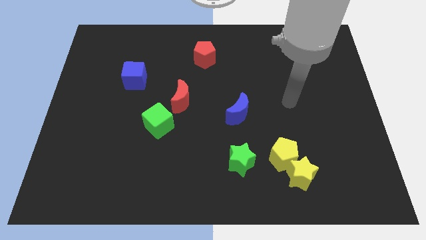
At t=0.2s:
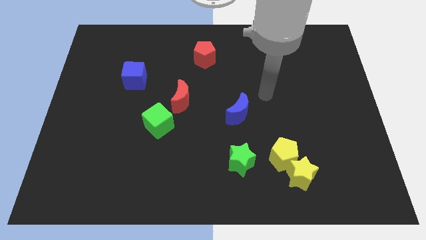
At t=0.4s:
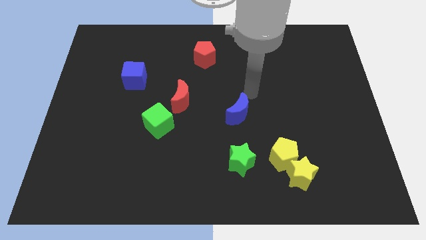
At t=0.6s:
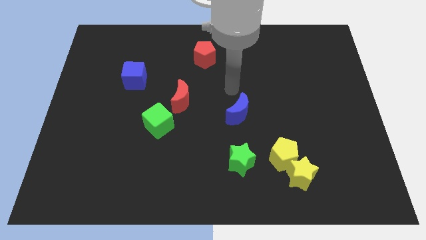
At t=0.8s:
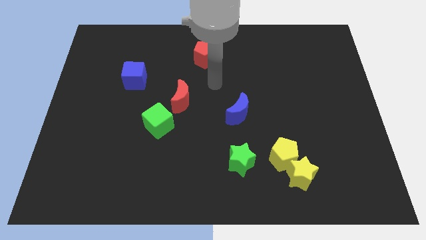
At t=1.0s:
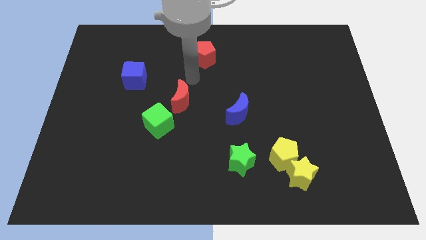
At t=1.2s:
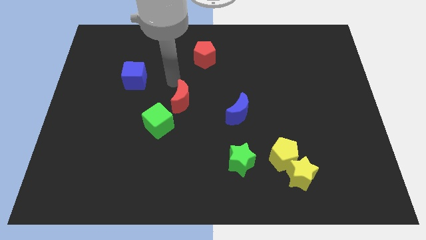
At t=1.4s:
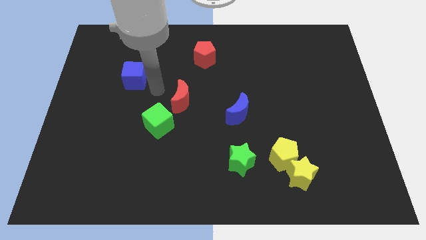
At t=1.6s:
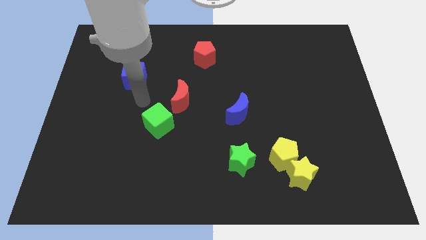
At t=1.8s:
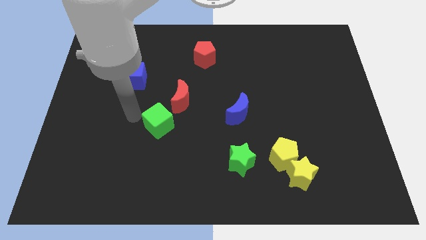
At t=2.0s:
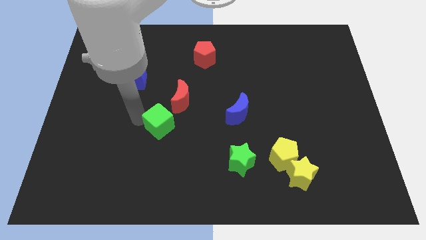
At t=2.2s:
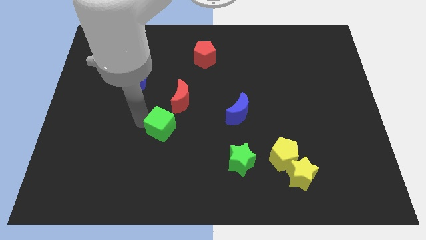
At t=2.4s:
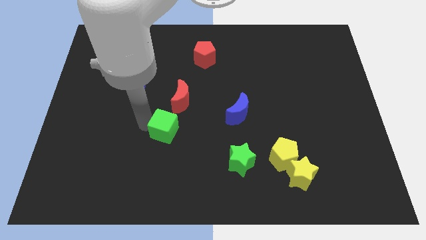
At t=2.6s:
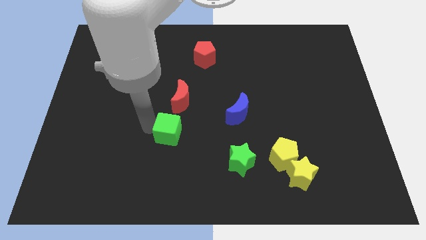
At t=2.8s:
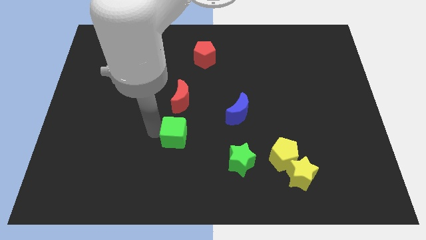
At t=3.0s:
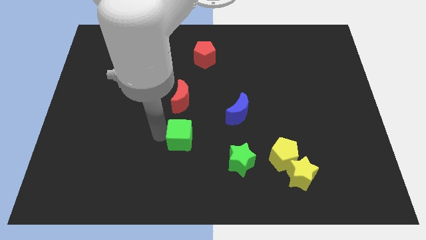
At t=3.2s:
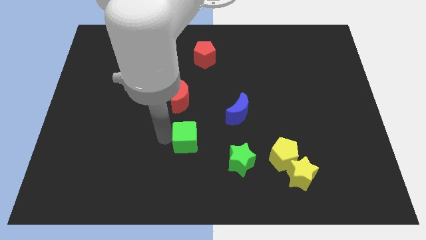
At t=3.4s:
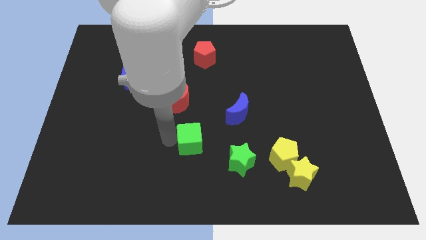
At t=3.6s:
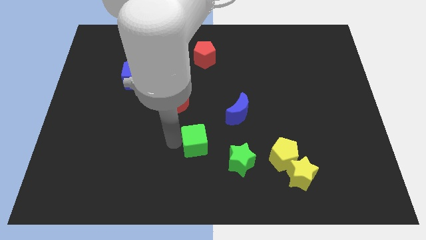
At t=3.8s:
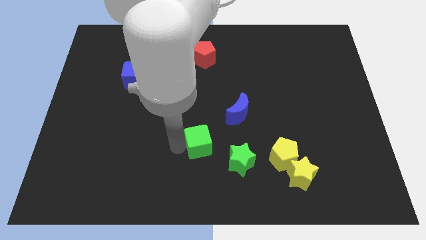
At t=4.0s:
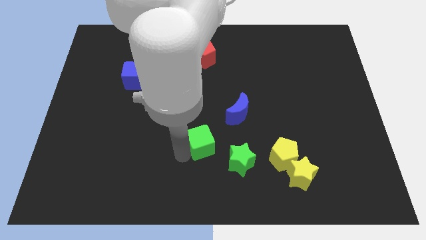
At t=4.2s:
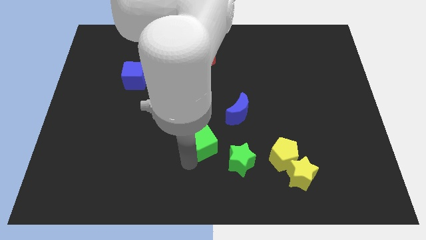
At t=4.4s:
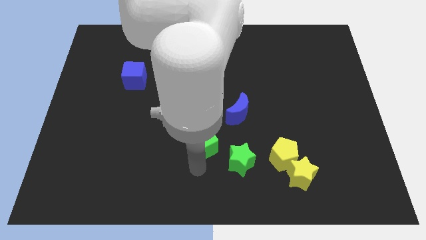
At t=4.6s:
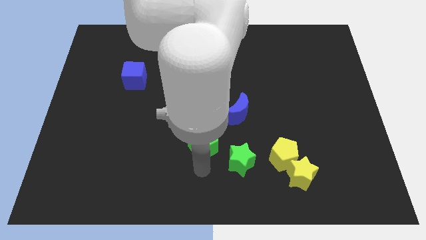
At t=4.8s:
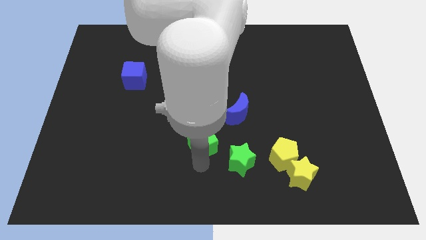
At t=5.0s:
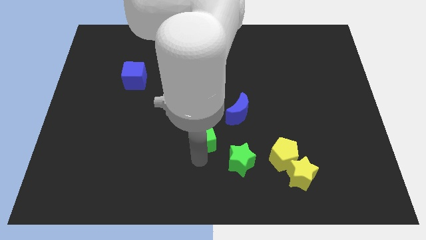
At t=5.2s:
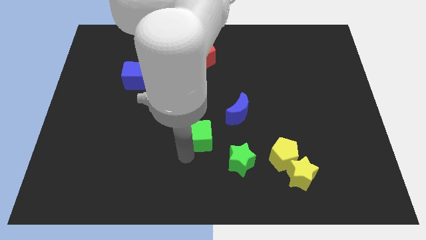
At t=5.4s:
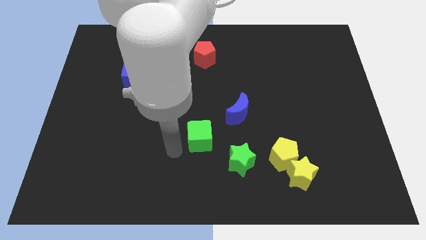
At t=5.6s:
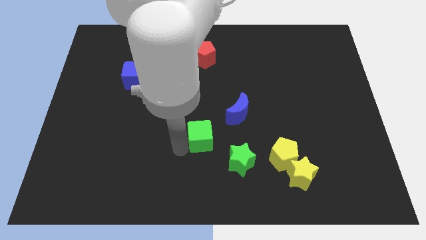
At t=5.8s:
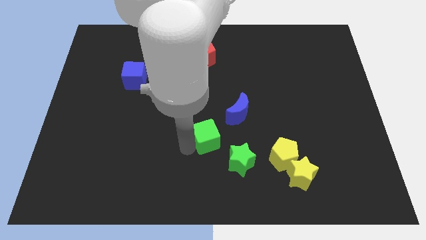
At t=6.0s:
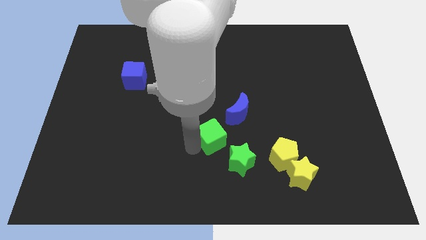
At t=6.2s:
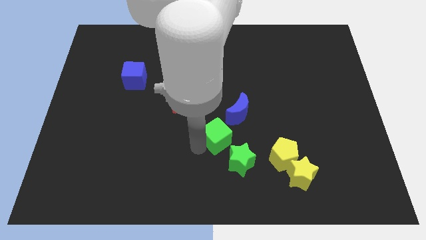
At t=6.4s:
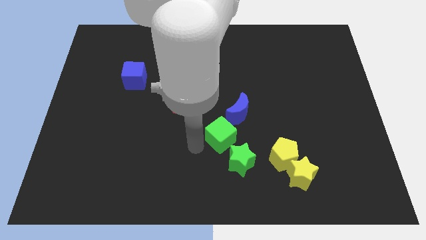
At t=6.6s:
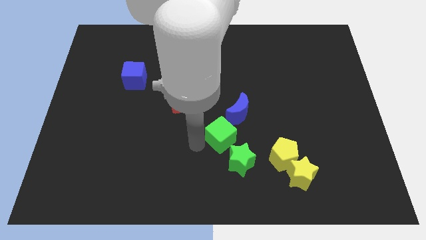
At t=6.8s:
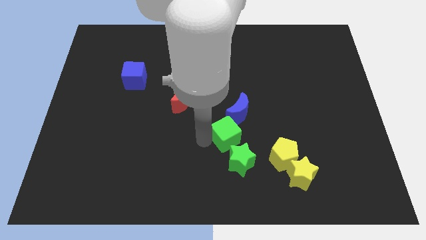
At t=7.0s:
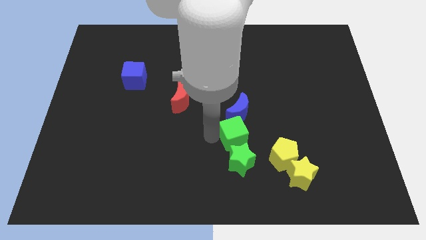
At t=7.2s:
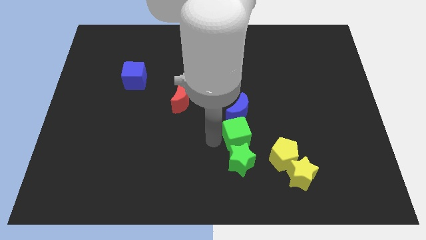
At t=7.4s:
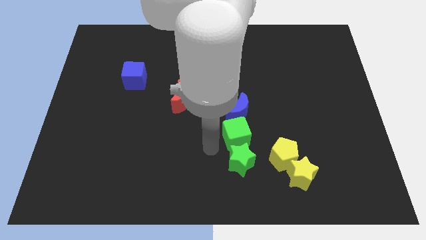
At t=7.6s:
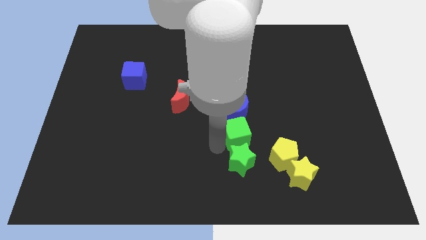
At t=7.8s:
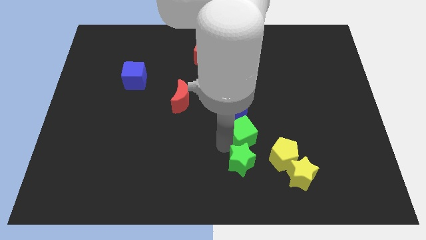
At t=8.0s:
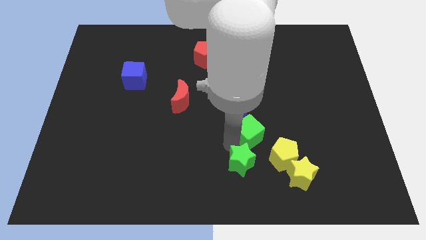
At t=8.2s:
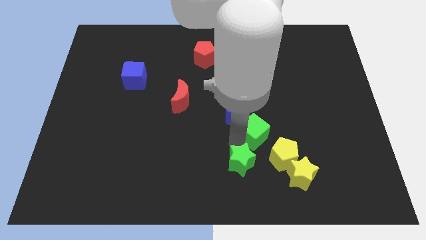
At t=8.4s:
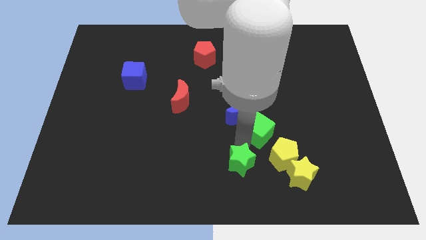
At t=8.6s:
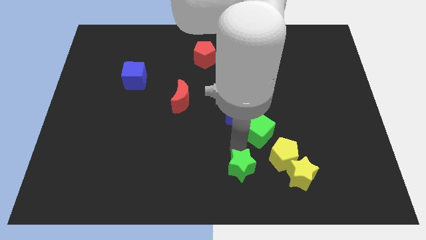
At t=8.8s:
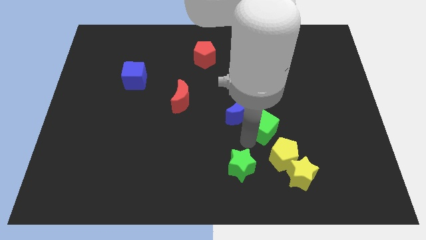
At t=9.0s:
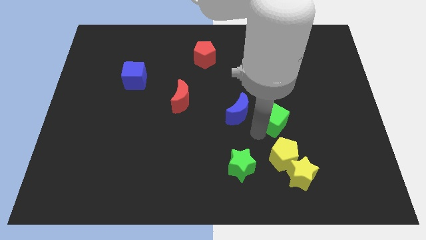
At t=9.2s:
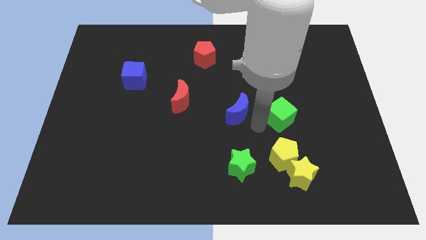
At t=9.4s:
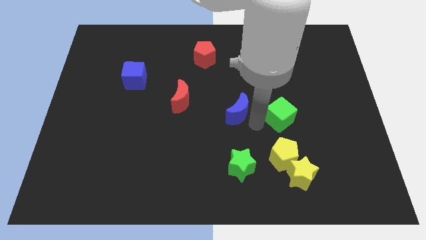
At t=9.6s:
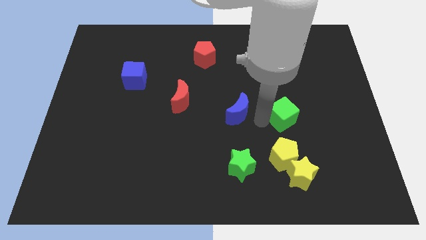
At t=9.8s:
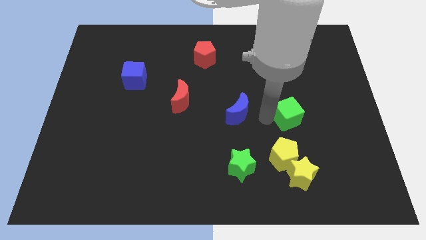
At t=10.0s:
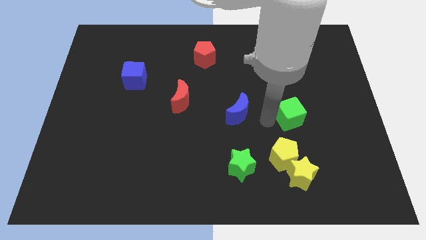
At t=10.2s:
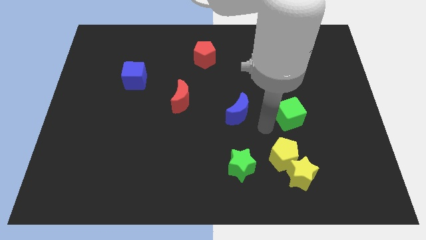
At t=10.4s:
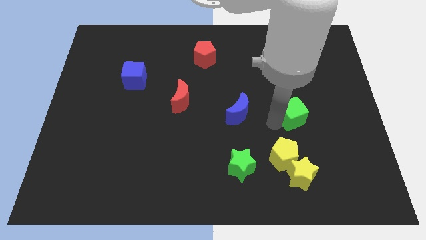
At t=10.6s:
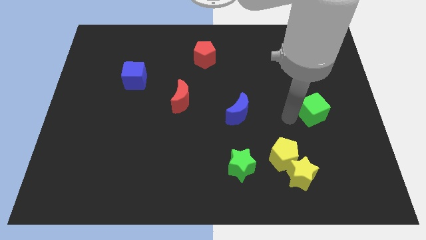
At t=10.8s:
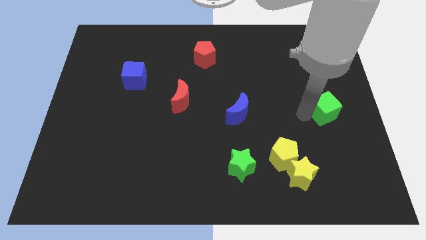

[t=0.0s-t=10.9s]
slide the green cube to the right side of the board

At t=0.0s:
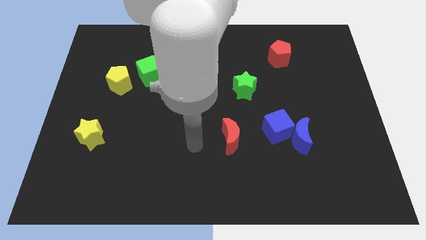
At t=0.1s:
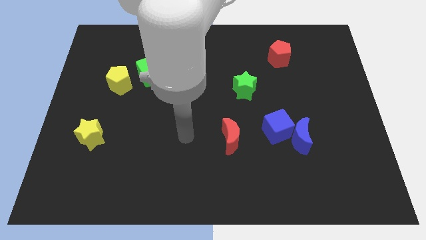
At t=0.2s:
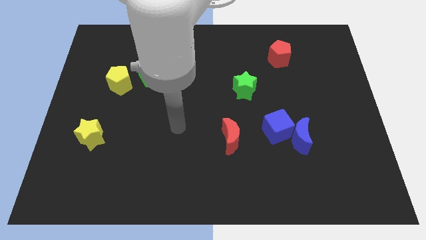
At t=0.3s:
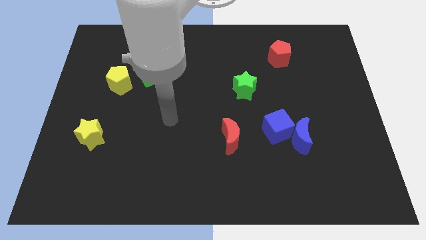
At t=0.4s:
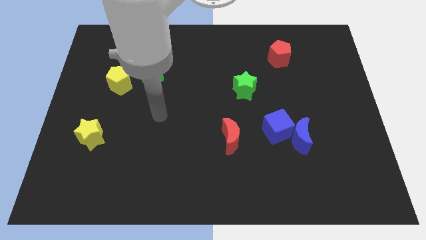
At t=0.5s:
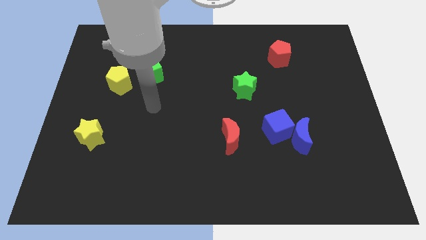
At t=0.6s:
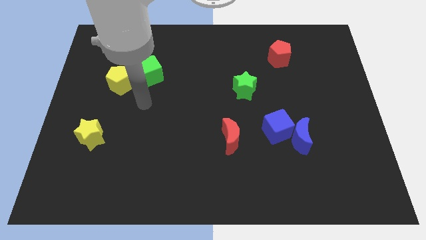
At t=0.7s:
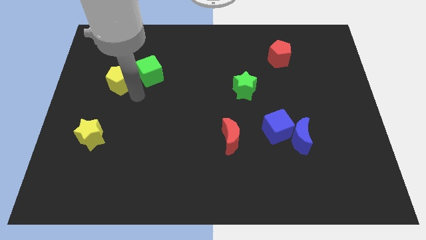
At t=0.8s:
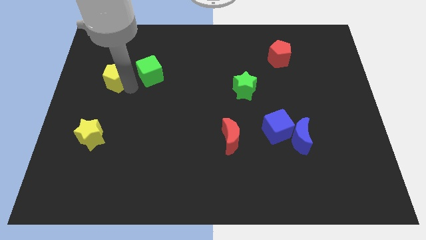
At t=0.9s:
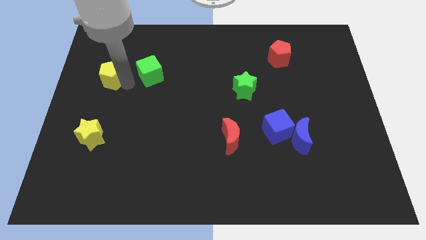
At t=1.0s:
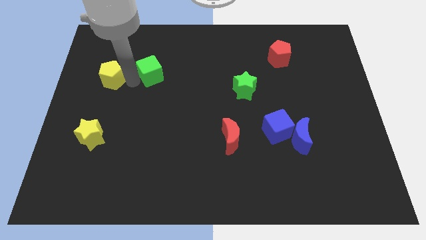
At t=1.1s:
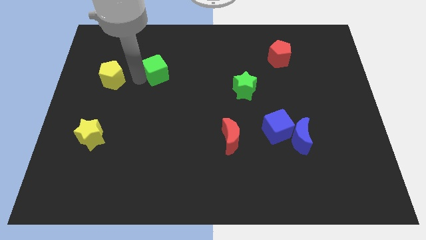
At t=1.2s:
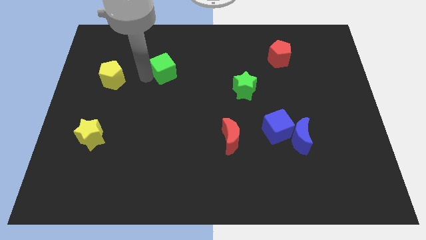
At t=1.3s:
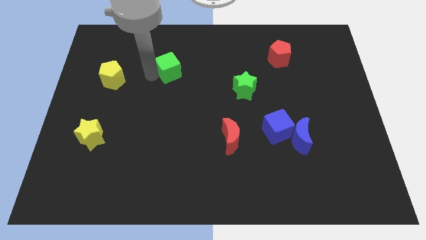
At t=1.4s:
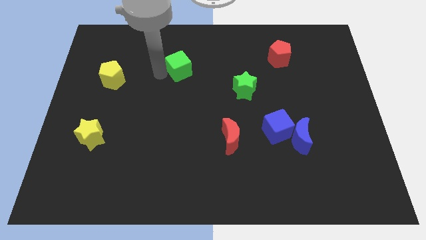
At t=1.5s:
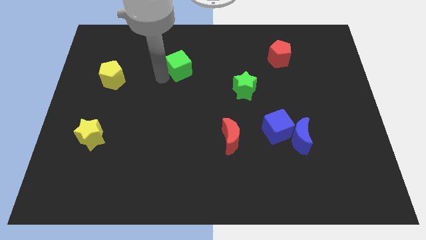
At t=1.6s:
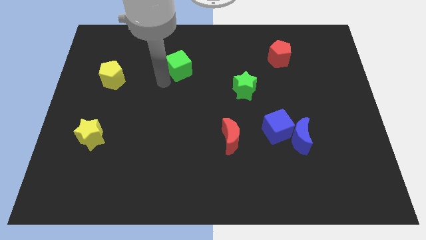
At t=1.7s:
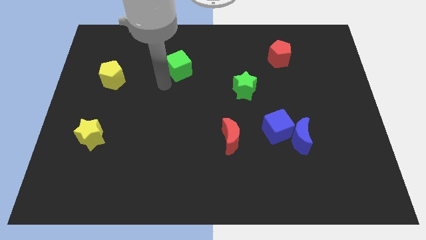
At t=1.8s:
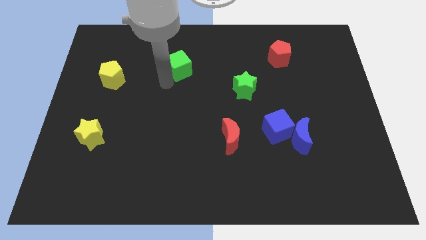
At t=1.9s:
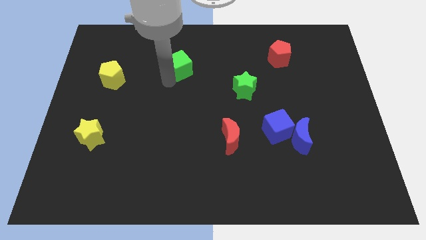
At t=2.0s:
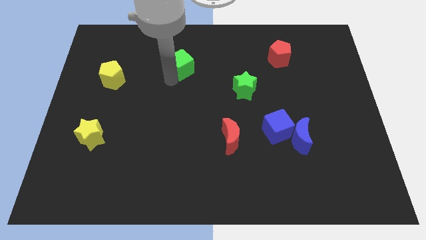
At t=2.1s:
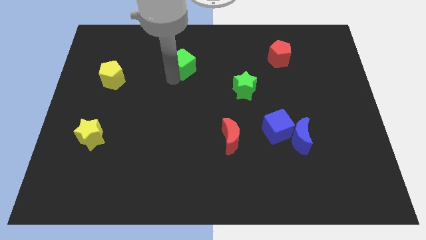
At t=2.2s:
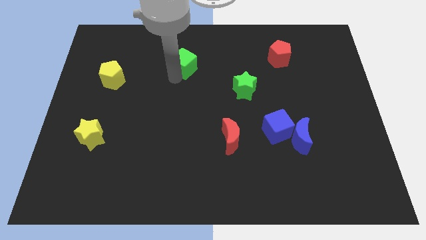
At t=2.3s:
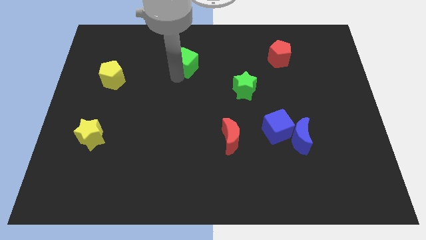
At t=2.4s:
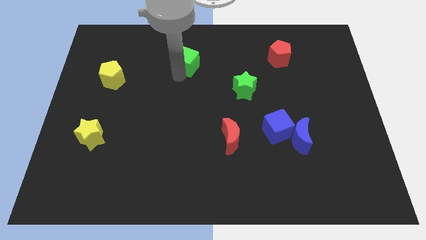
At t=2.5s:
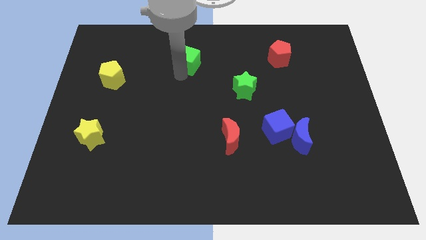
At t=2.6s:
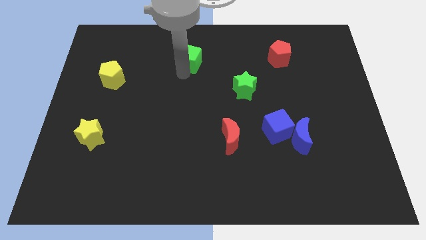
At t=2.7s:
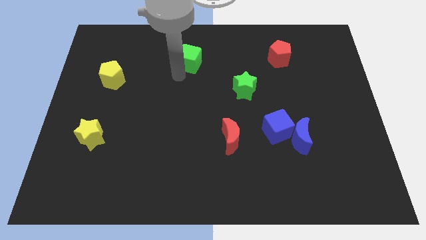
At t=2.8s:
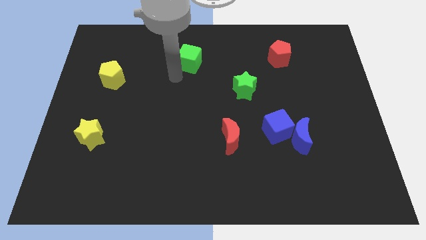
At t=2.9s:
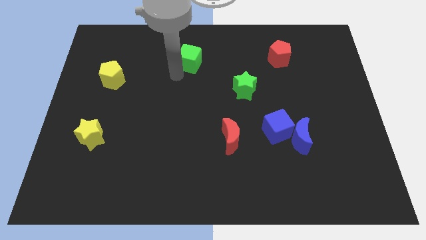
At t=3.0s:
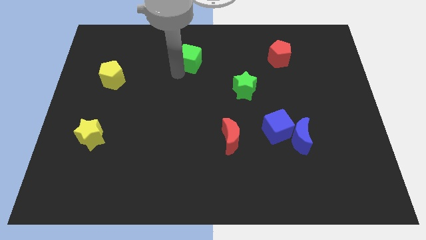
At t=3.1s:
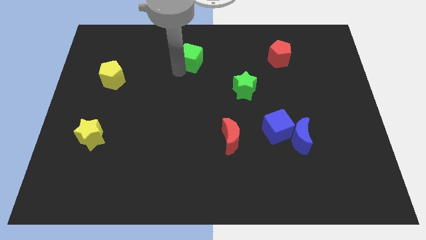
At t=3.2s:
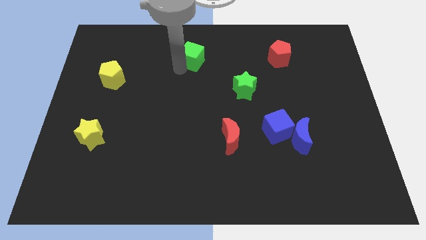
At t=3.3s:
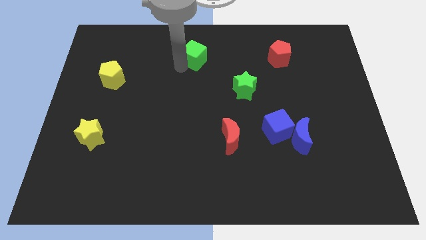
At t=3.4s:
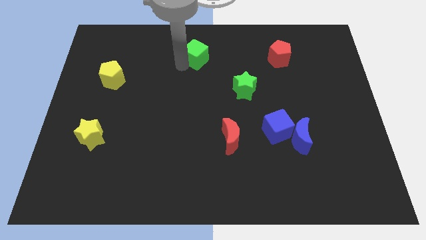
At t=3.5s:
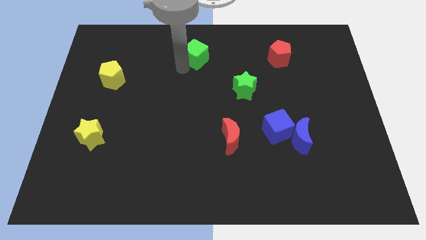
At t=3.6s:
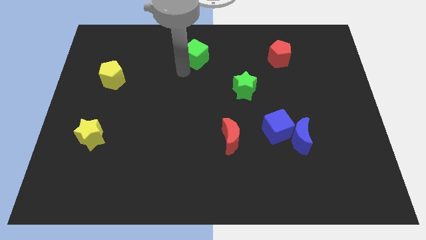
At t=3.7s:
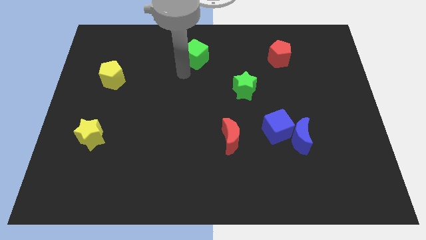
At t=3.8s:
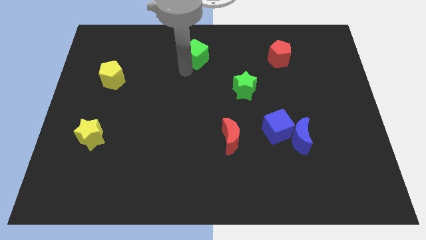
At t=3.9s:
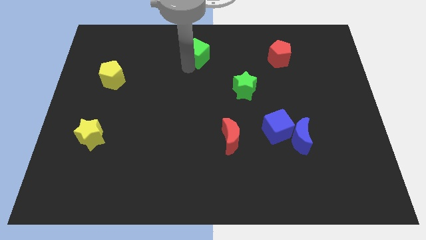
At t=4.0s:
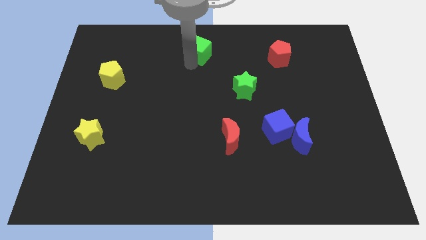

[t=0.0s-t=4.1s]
slide the green cube to the top side
